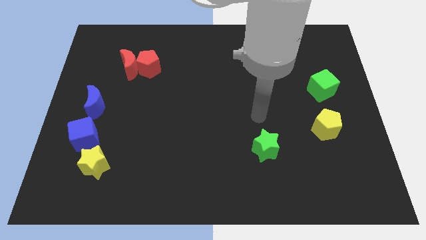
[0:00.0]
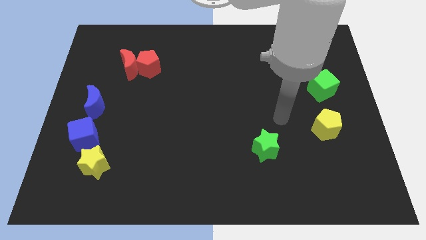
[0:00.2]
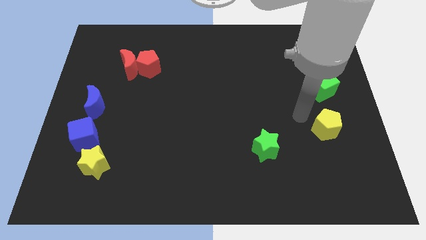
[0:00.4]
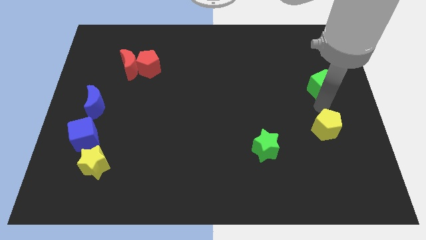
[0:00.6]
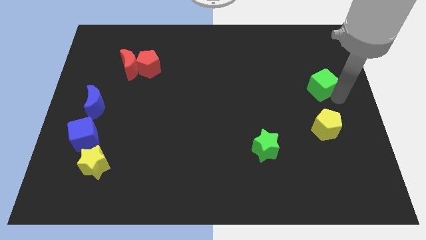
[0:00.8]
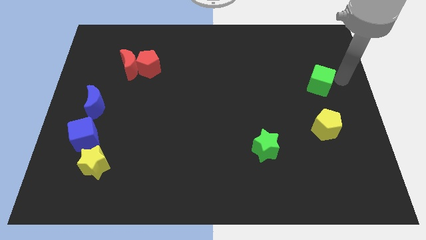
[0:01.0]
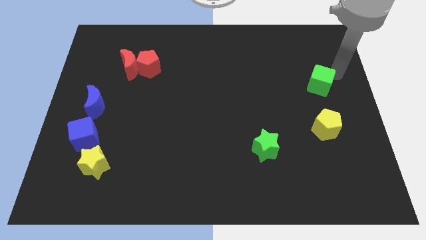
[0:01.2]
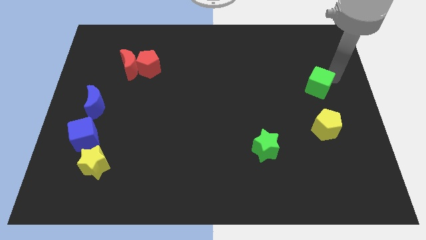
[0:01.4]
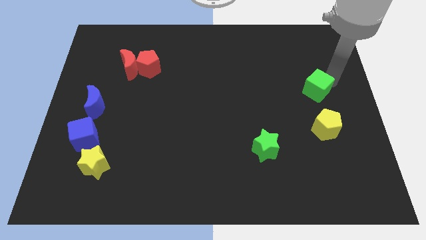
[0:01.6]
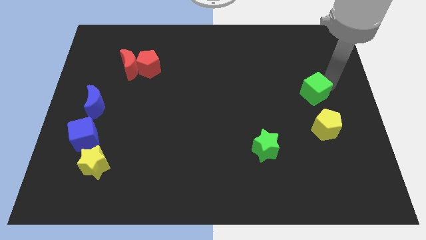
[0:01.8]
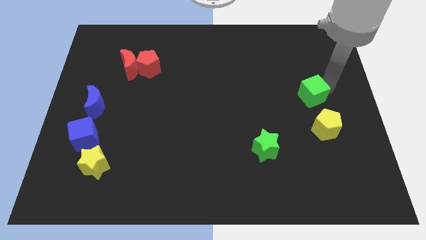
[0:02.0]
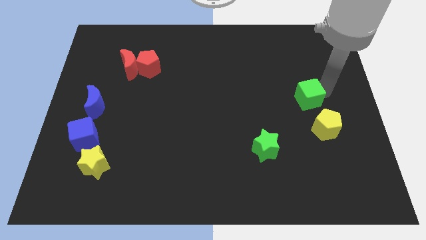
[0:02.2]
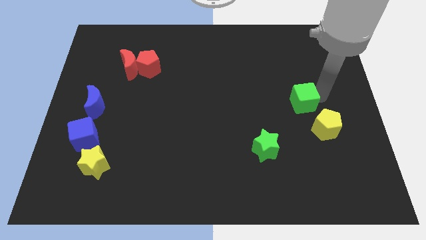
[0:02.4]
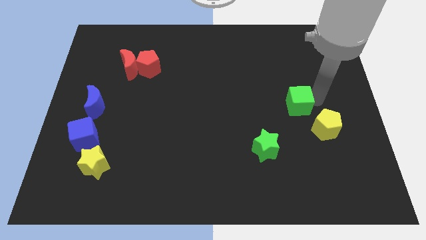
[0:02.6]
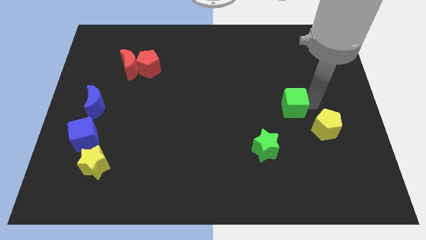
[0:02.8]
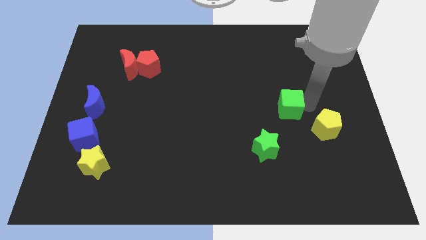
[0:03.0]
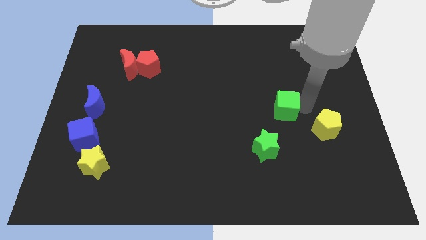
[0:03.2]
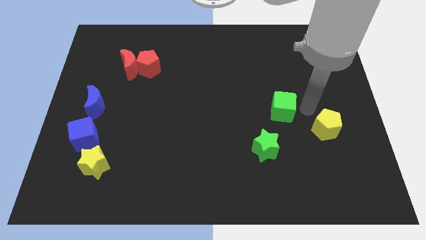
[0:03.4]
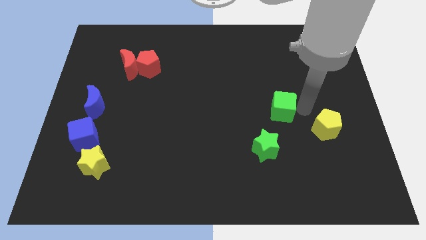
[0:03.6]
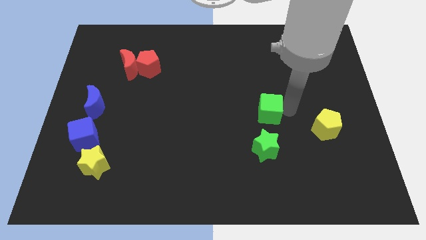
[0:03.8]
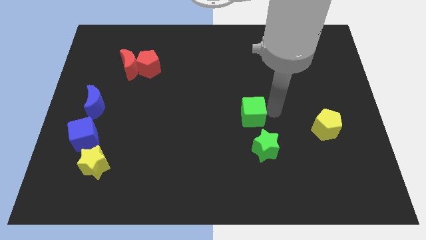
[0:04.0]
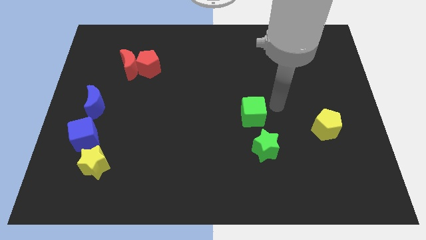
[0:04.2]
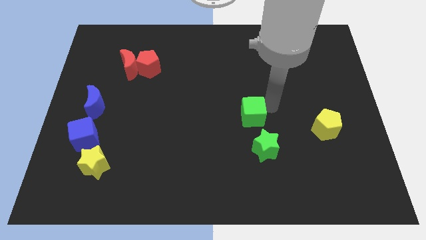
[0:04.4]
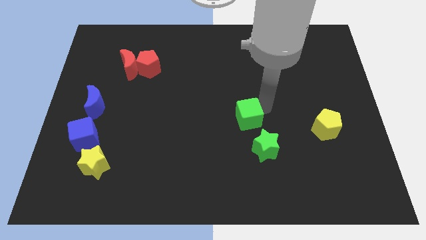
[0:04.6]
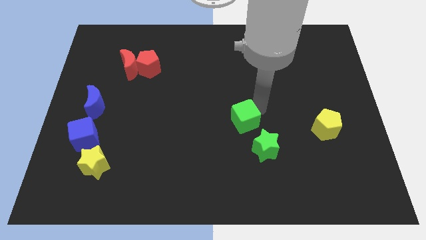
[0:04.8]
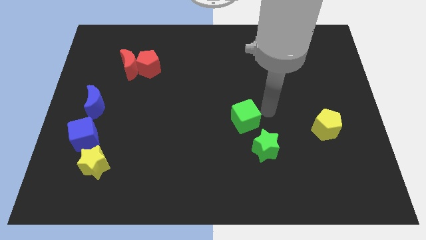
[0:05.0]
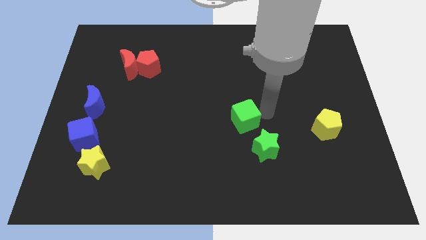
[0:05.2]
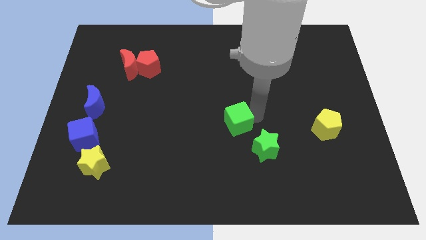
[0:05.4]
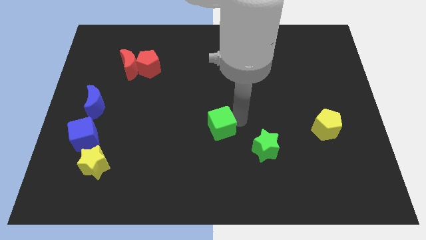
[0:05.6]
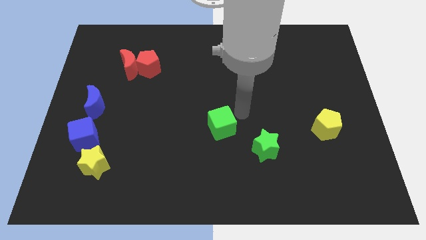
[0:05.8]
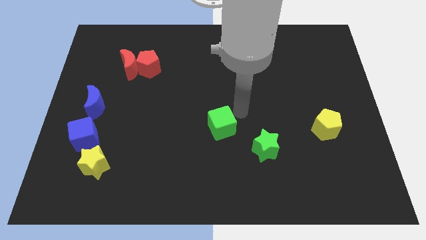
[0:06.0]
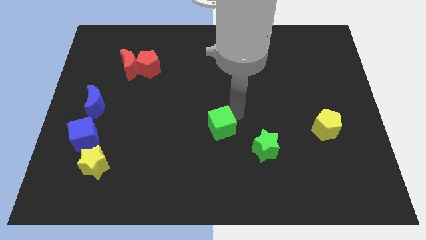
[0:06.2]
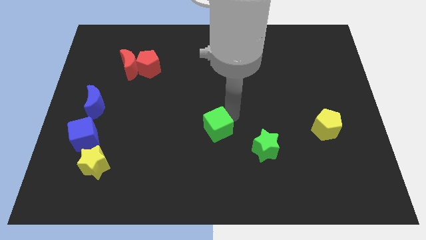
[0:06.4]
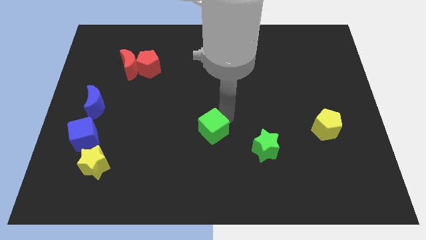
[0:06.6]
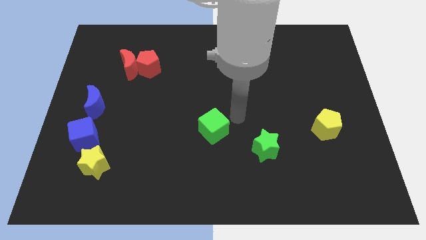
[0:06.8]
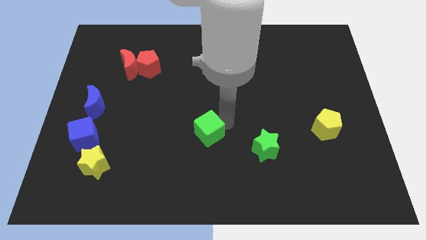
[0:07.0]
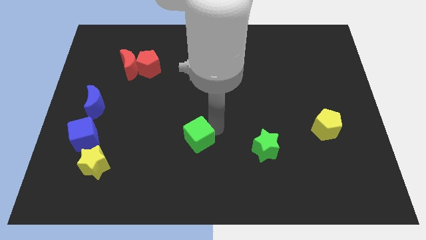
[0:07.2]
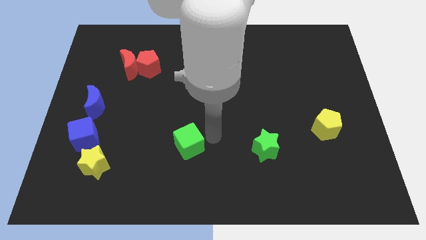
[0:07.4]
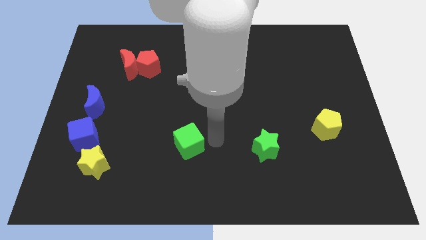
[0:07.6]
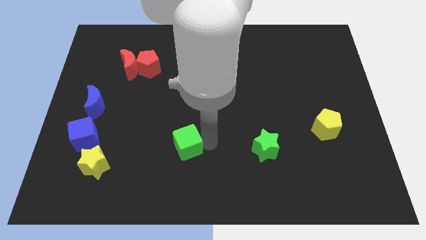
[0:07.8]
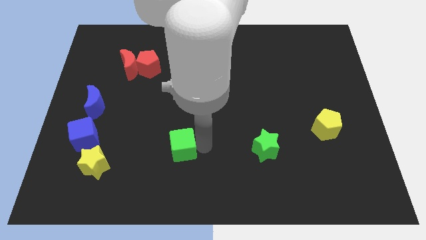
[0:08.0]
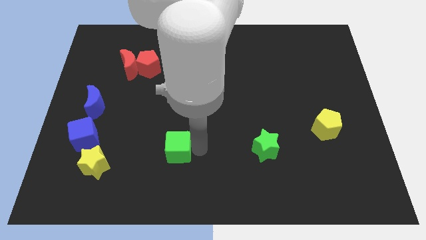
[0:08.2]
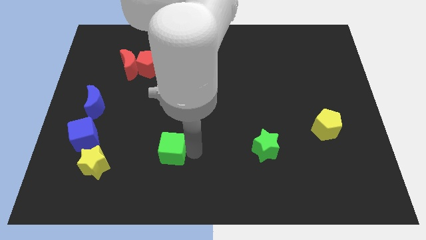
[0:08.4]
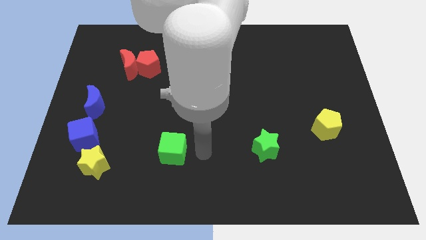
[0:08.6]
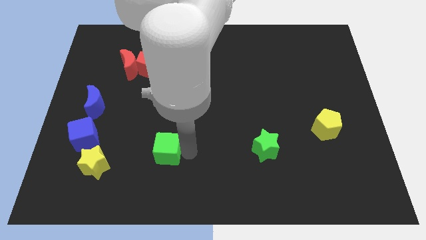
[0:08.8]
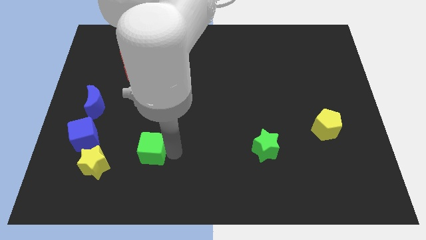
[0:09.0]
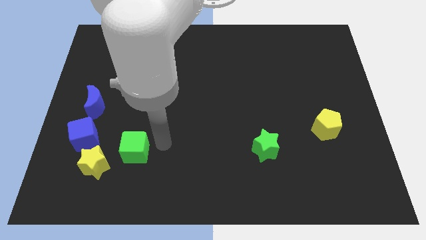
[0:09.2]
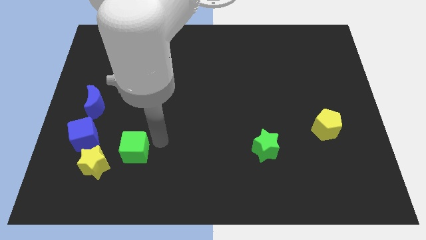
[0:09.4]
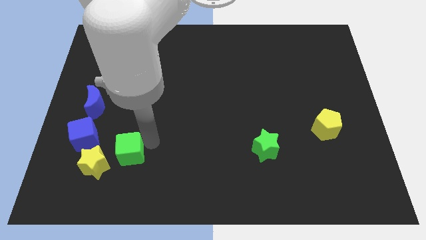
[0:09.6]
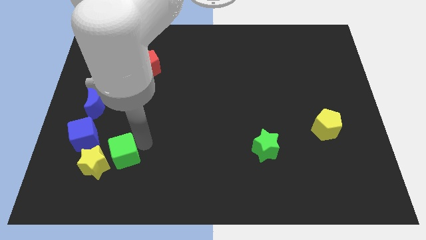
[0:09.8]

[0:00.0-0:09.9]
slide the green cube to the yellow star

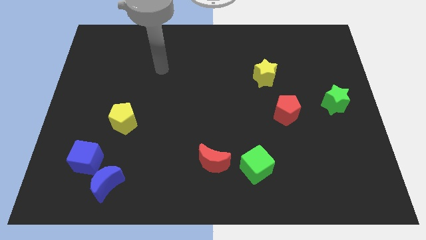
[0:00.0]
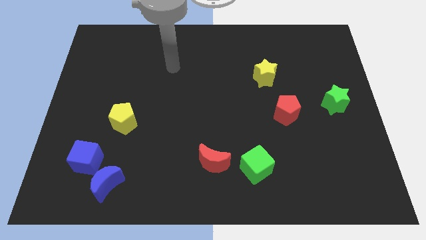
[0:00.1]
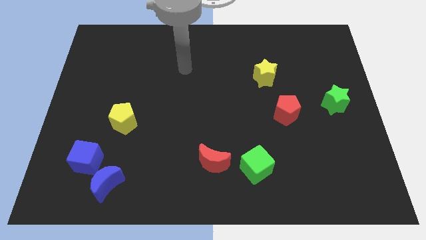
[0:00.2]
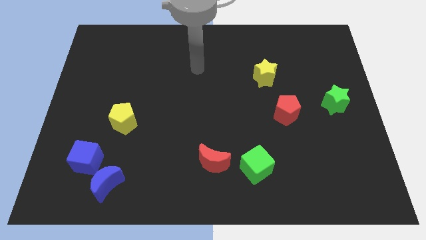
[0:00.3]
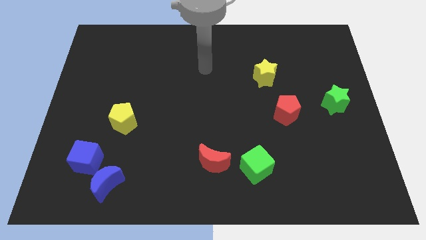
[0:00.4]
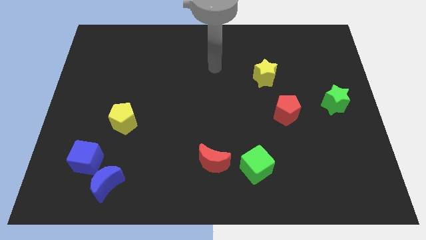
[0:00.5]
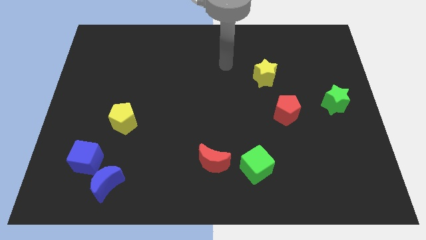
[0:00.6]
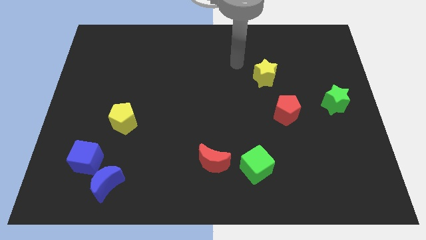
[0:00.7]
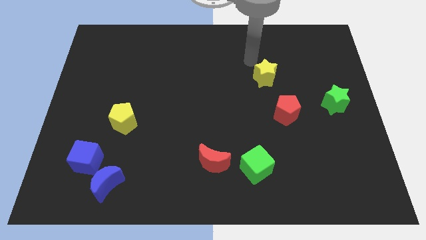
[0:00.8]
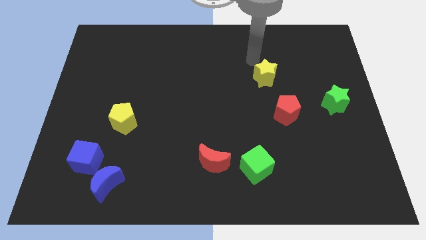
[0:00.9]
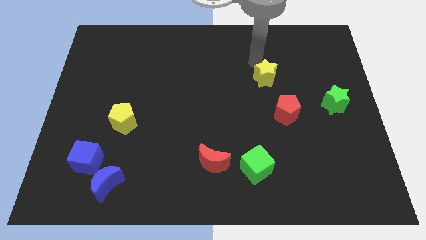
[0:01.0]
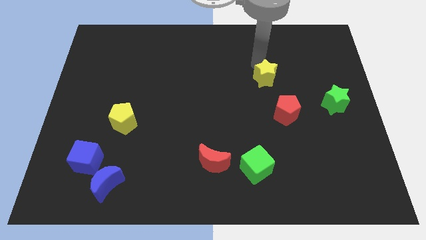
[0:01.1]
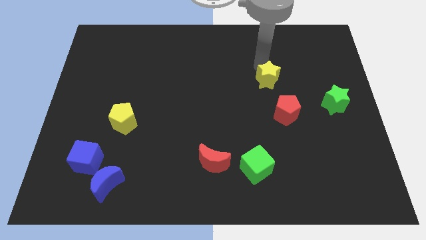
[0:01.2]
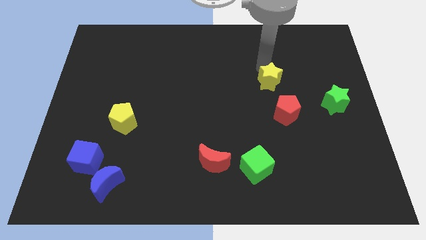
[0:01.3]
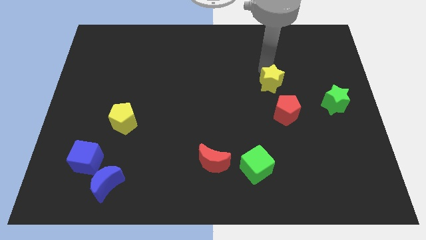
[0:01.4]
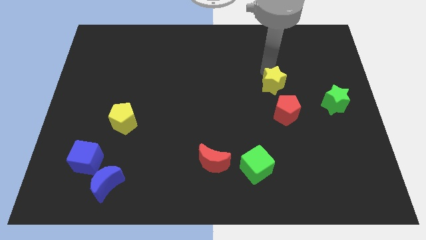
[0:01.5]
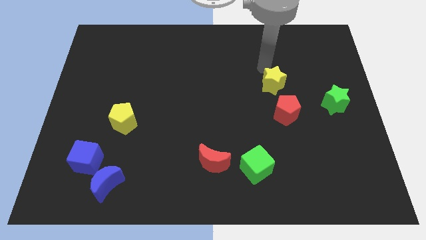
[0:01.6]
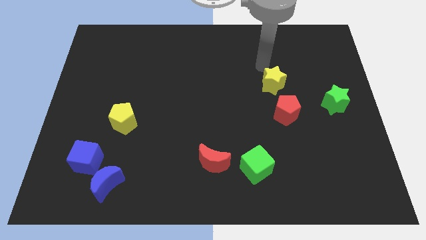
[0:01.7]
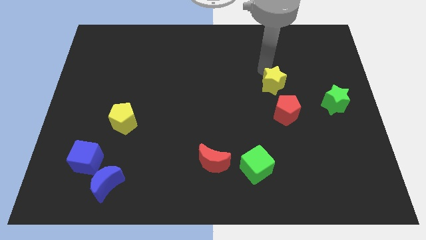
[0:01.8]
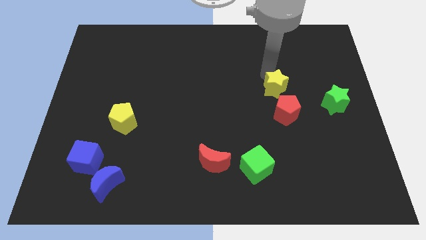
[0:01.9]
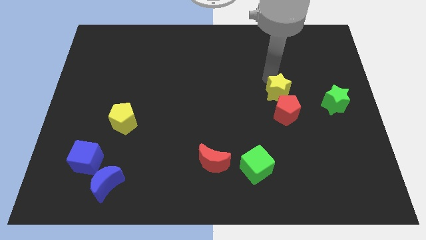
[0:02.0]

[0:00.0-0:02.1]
put the yellow star next to the red pentagon
